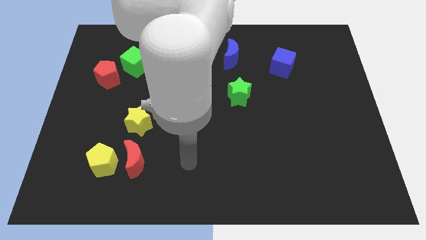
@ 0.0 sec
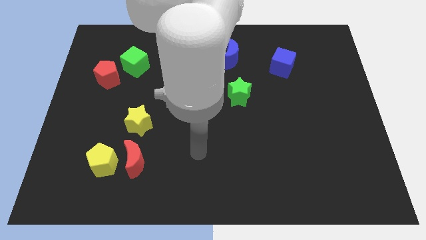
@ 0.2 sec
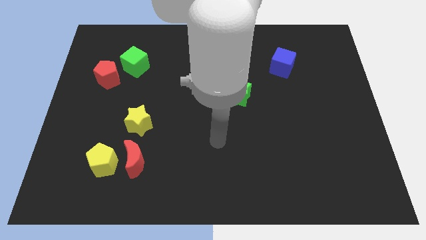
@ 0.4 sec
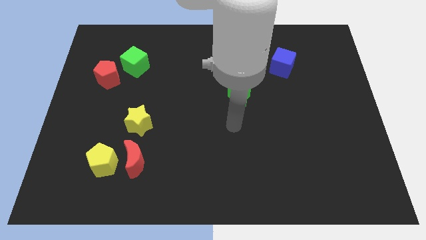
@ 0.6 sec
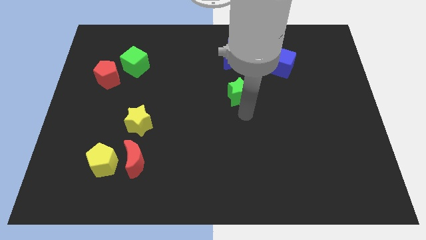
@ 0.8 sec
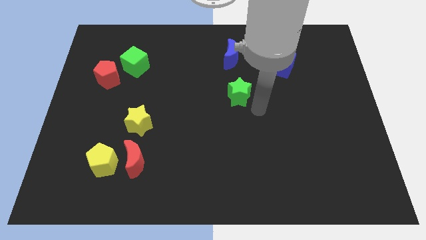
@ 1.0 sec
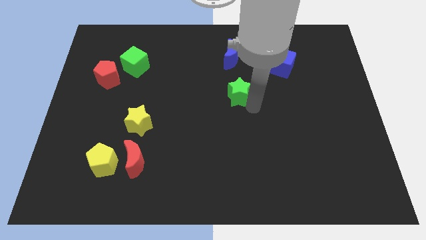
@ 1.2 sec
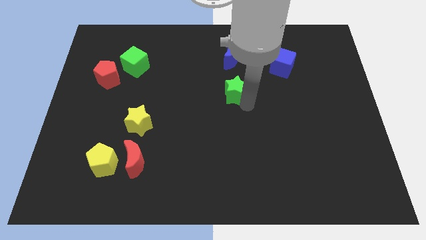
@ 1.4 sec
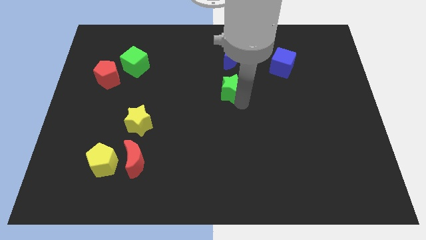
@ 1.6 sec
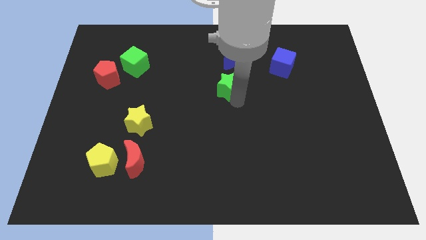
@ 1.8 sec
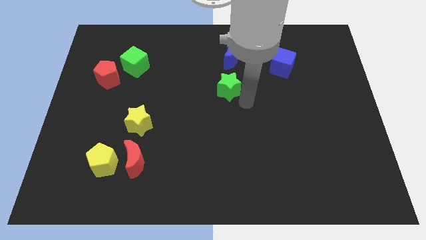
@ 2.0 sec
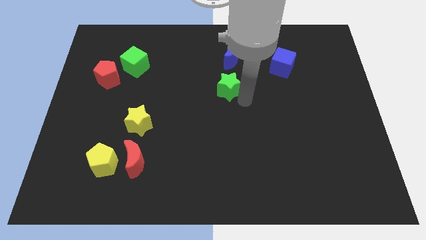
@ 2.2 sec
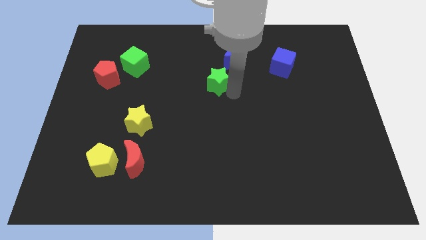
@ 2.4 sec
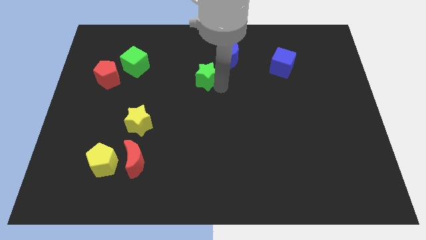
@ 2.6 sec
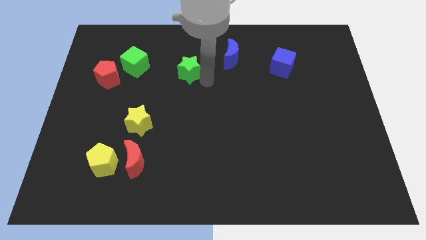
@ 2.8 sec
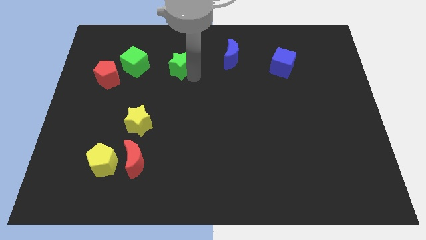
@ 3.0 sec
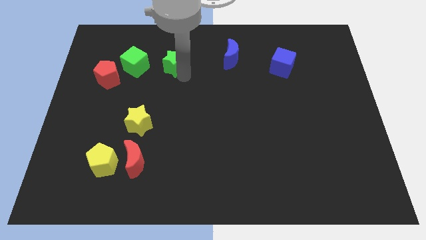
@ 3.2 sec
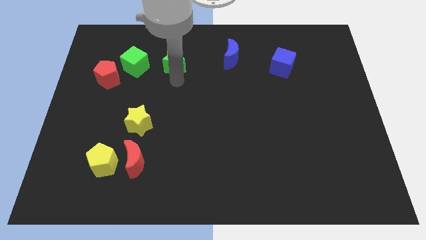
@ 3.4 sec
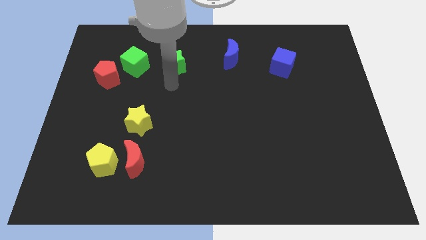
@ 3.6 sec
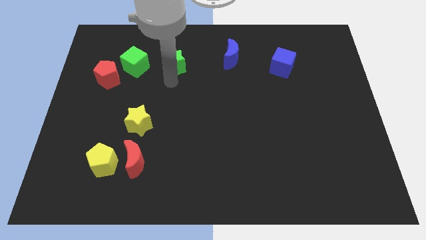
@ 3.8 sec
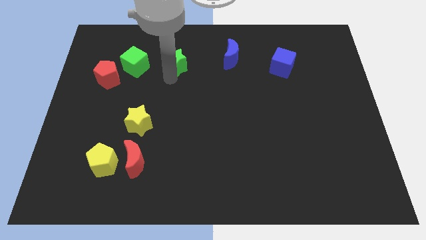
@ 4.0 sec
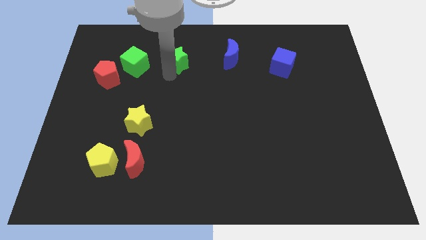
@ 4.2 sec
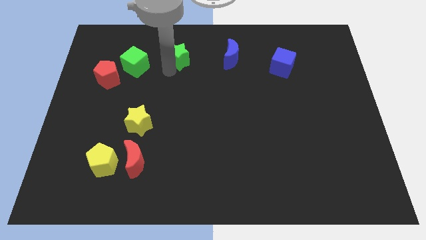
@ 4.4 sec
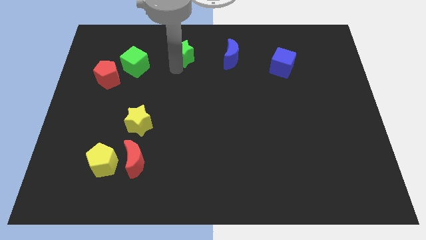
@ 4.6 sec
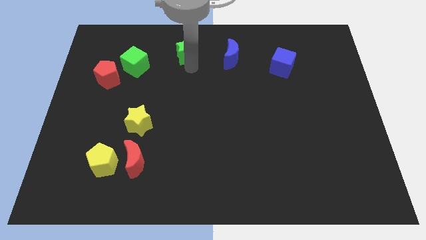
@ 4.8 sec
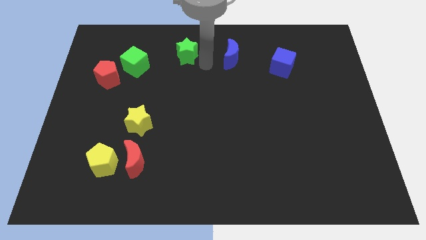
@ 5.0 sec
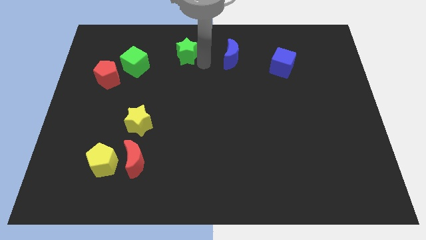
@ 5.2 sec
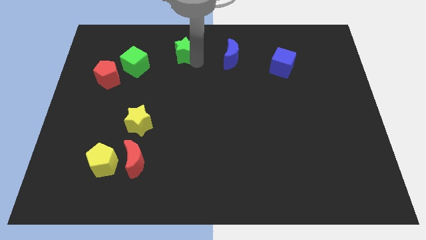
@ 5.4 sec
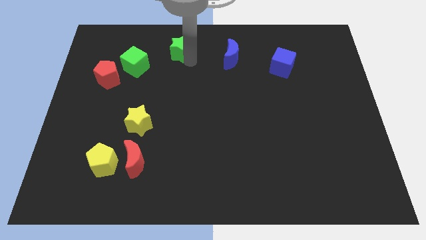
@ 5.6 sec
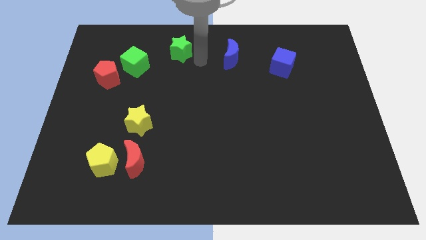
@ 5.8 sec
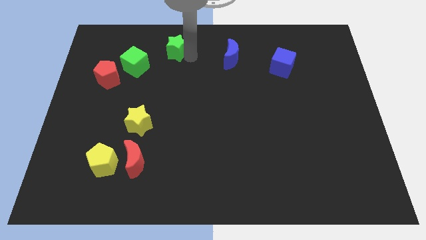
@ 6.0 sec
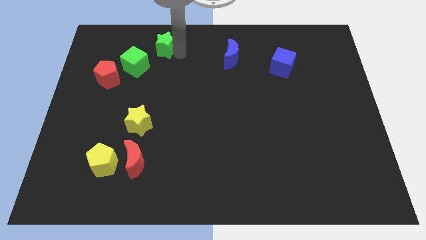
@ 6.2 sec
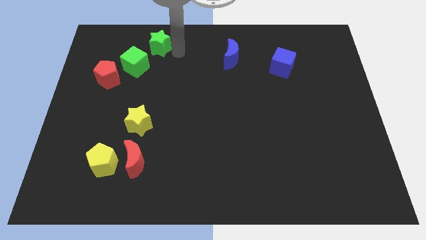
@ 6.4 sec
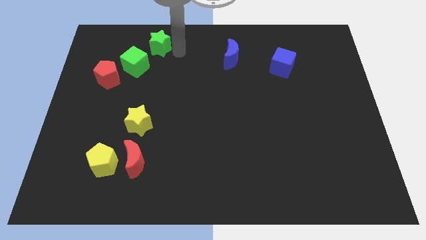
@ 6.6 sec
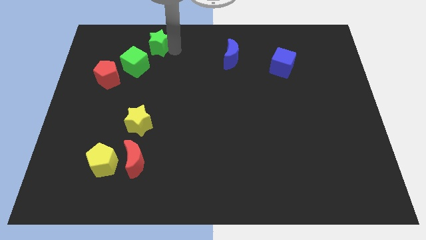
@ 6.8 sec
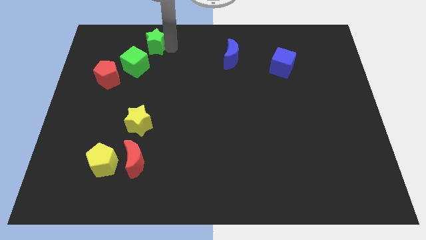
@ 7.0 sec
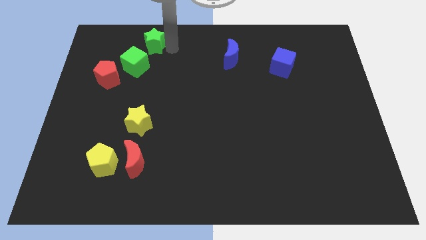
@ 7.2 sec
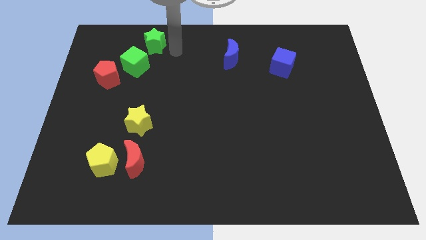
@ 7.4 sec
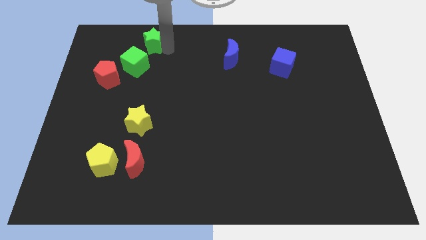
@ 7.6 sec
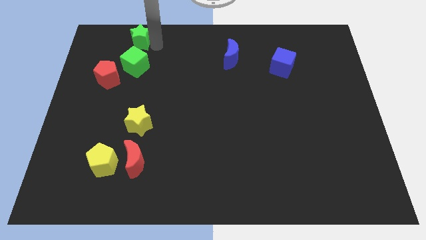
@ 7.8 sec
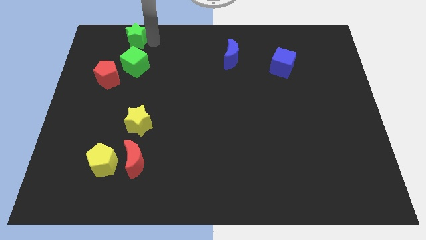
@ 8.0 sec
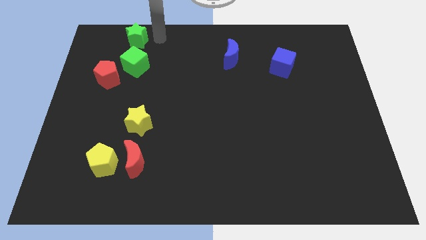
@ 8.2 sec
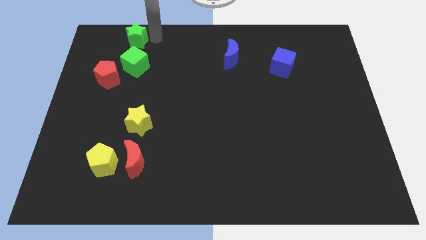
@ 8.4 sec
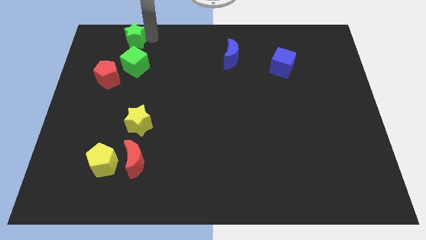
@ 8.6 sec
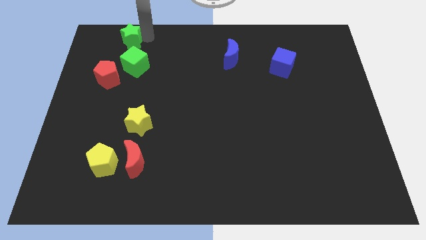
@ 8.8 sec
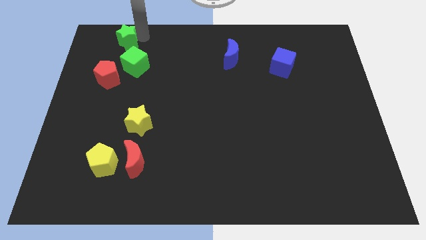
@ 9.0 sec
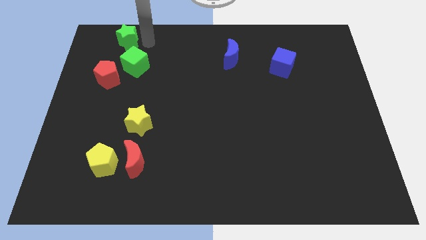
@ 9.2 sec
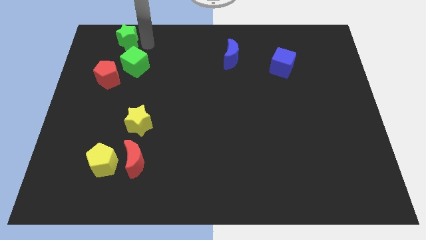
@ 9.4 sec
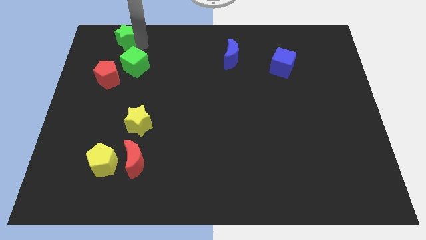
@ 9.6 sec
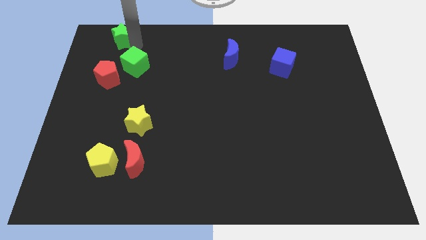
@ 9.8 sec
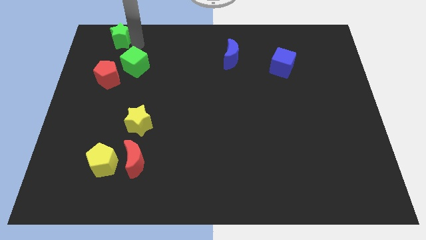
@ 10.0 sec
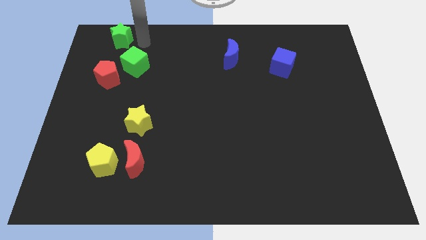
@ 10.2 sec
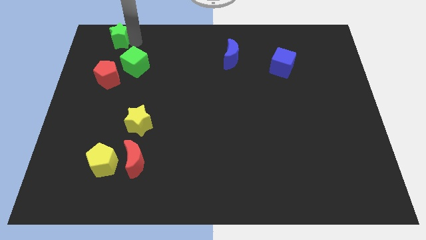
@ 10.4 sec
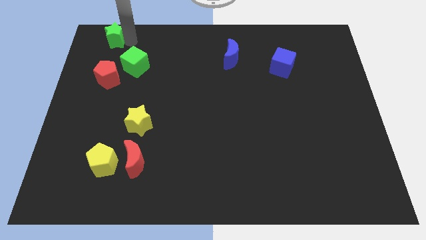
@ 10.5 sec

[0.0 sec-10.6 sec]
move the green star to the top left corner

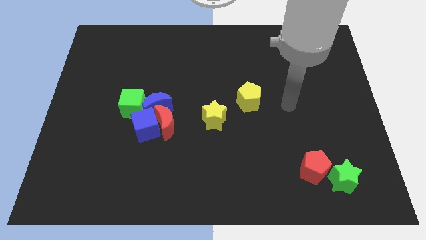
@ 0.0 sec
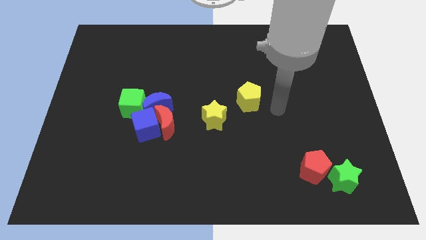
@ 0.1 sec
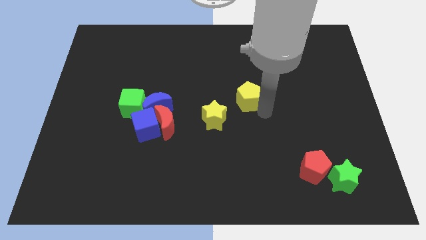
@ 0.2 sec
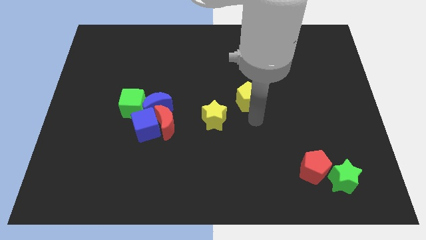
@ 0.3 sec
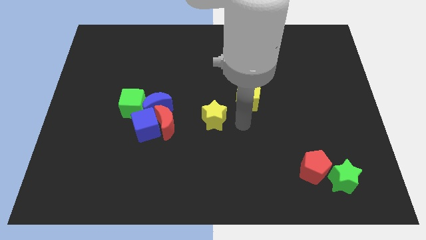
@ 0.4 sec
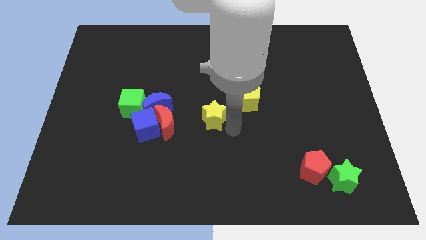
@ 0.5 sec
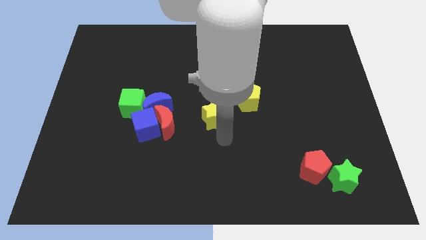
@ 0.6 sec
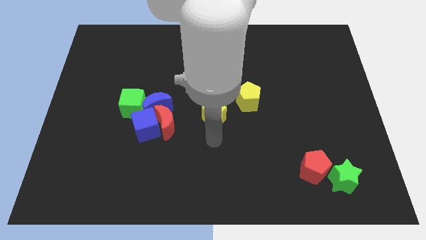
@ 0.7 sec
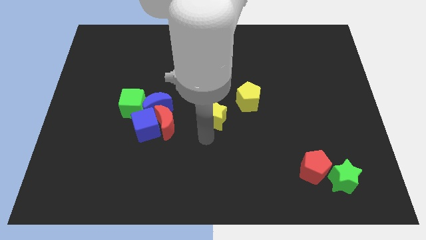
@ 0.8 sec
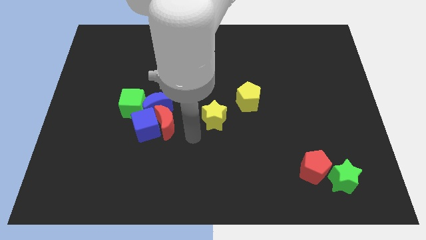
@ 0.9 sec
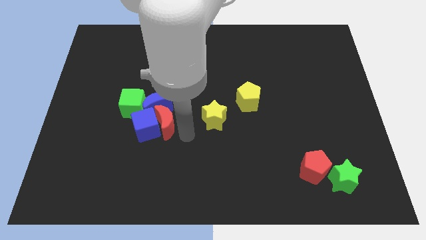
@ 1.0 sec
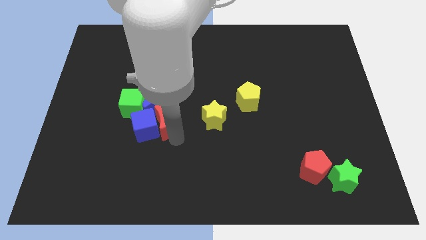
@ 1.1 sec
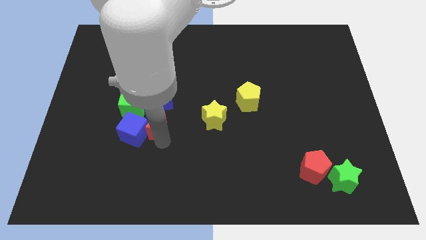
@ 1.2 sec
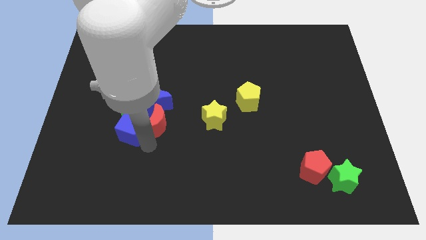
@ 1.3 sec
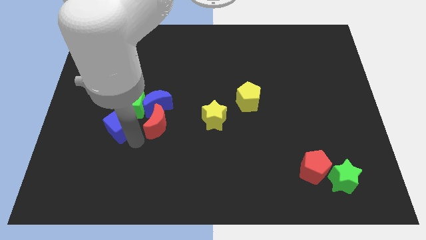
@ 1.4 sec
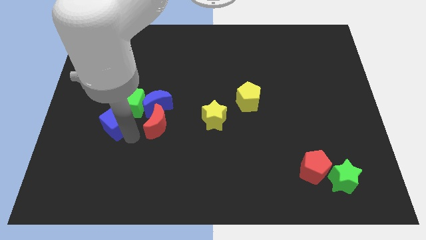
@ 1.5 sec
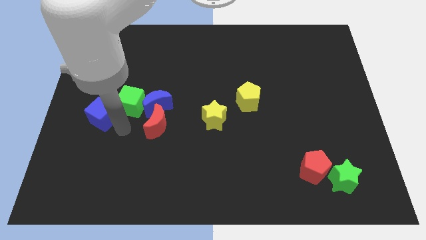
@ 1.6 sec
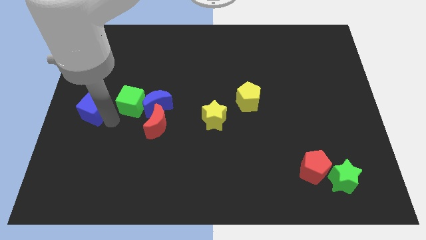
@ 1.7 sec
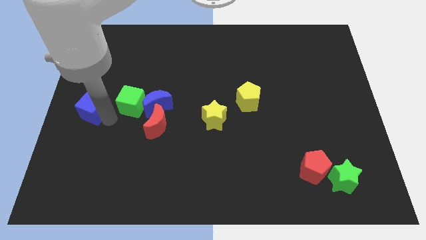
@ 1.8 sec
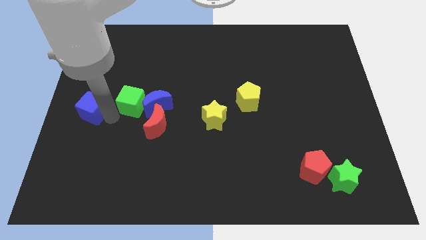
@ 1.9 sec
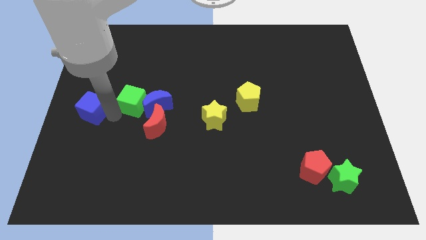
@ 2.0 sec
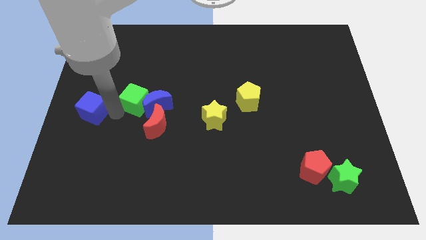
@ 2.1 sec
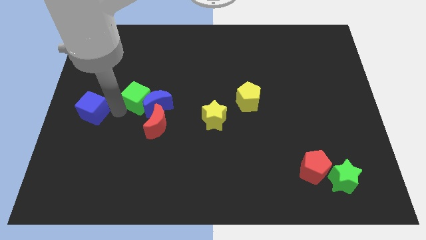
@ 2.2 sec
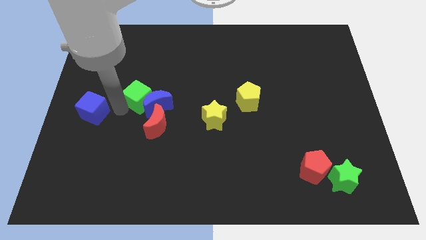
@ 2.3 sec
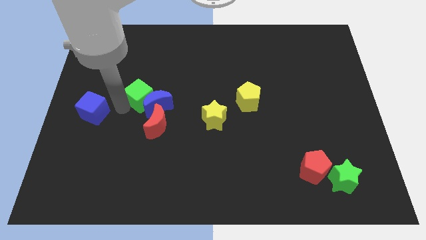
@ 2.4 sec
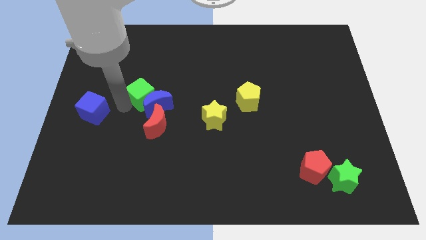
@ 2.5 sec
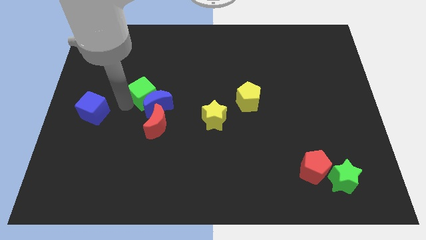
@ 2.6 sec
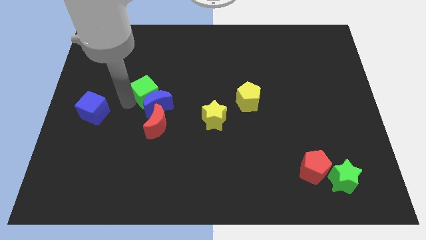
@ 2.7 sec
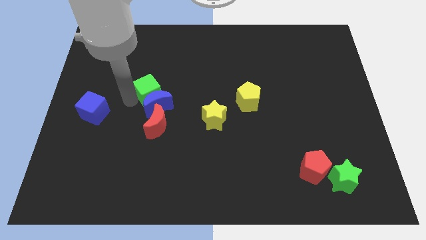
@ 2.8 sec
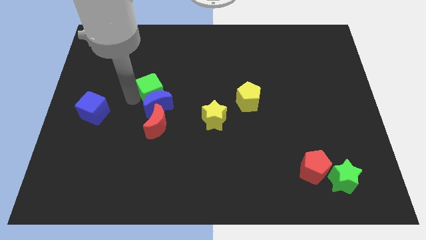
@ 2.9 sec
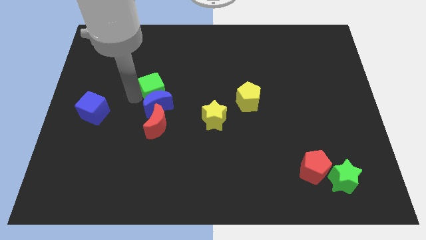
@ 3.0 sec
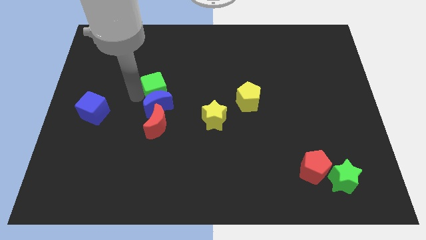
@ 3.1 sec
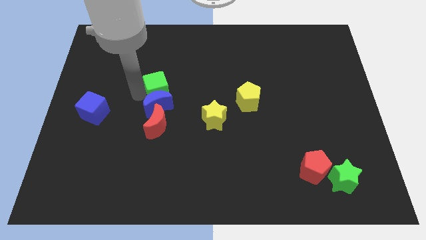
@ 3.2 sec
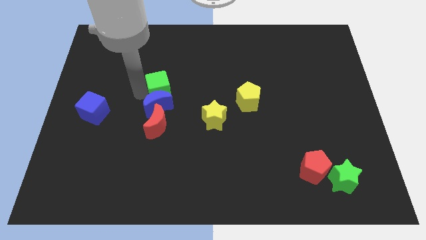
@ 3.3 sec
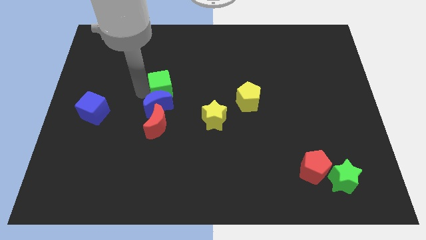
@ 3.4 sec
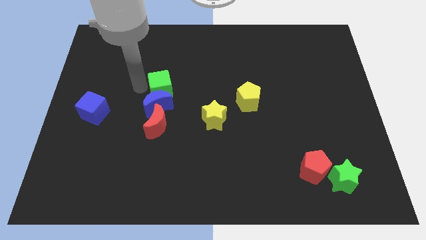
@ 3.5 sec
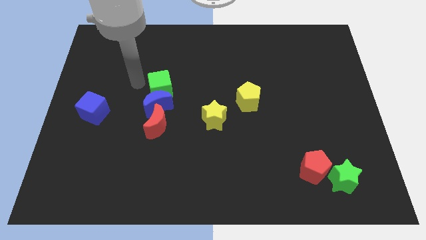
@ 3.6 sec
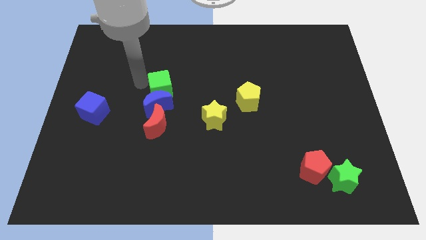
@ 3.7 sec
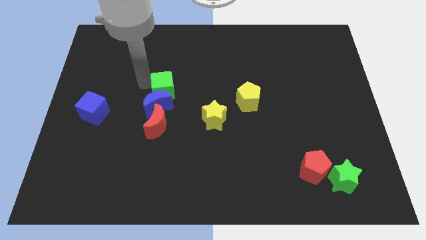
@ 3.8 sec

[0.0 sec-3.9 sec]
put the green cube to the middle
